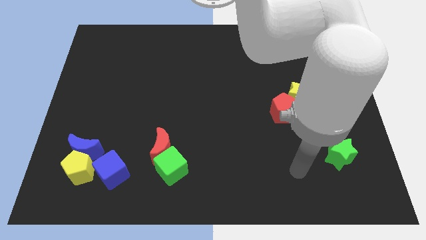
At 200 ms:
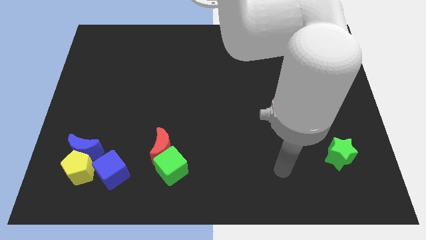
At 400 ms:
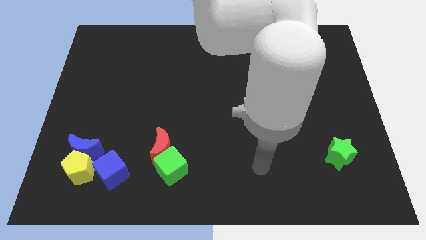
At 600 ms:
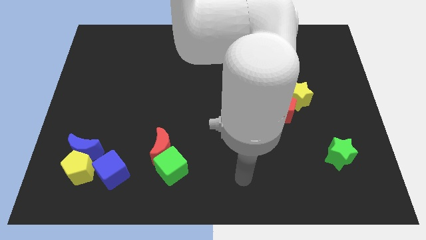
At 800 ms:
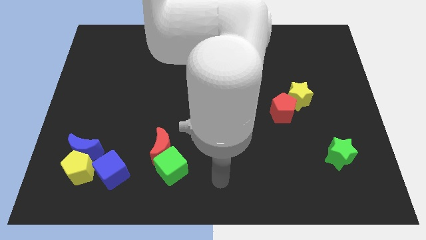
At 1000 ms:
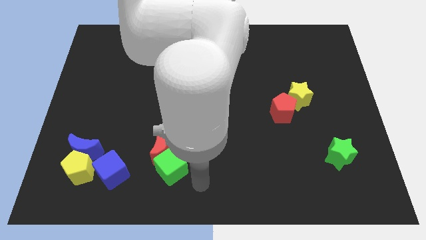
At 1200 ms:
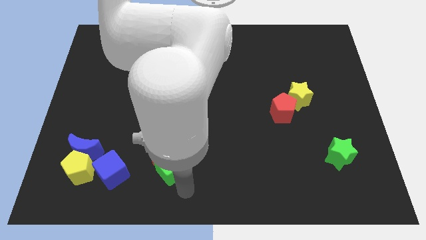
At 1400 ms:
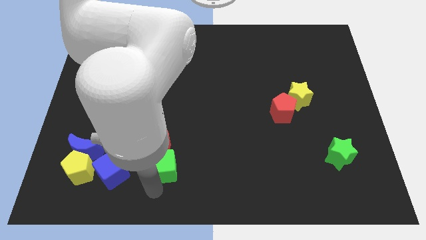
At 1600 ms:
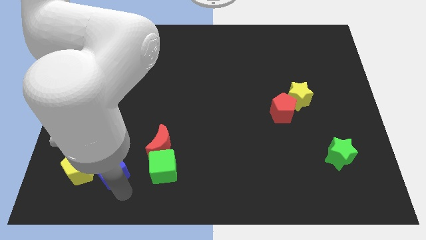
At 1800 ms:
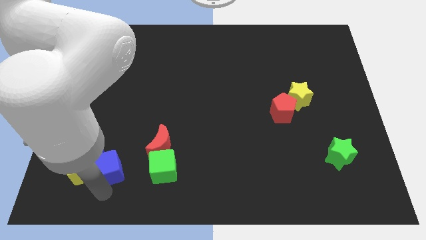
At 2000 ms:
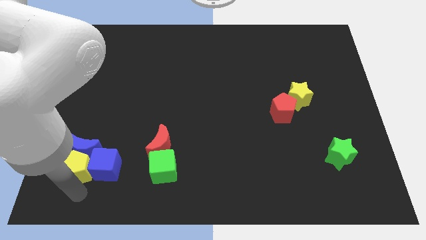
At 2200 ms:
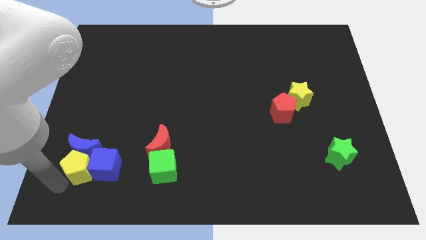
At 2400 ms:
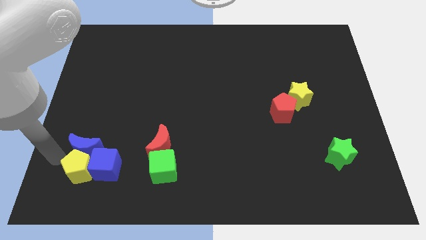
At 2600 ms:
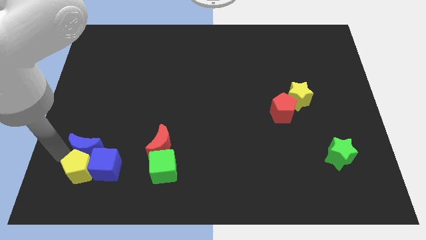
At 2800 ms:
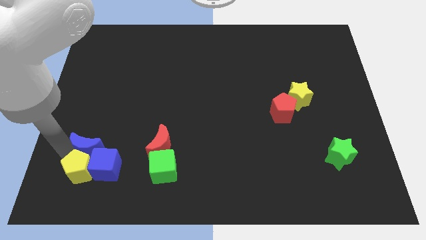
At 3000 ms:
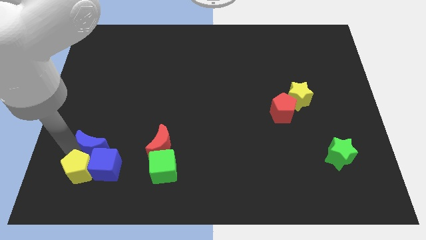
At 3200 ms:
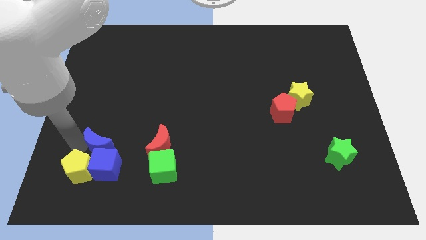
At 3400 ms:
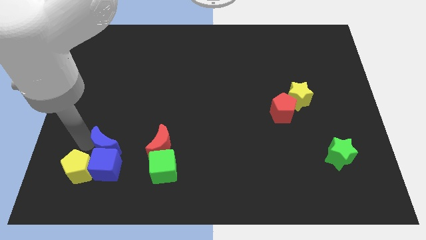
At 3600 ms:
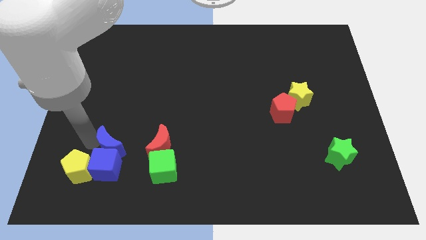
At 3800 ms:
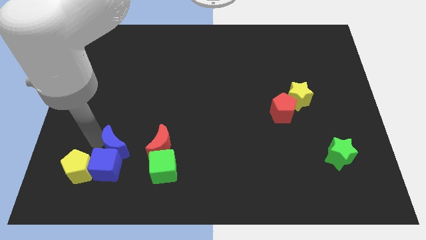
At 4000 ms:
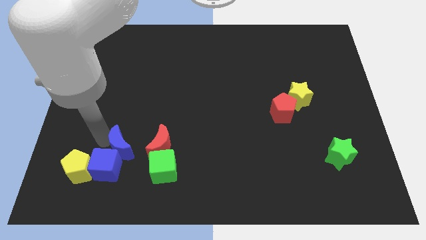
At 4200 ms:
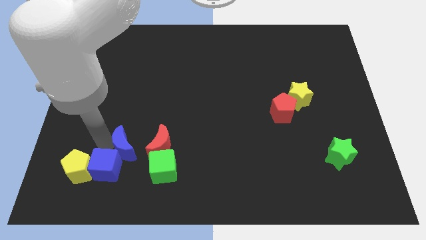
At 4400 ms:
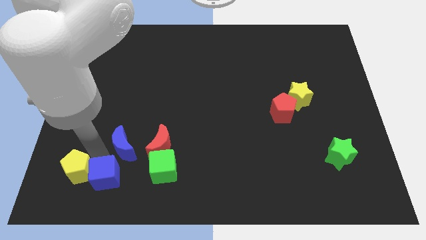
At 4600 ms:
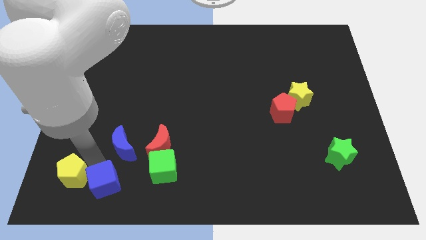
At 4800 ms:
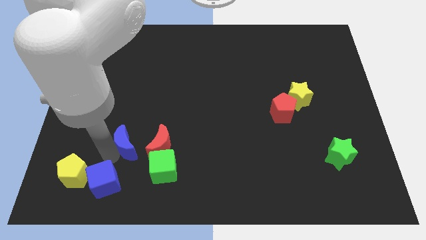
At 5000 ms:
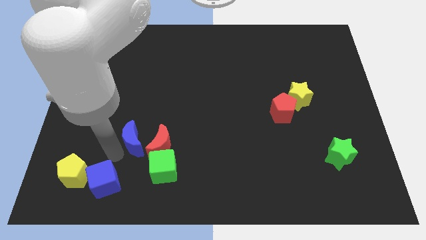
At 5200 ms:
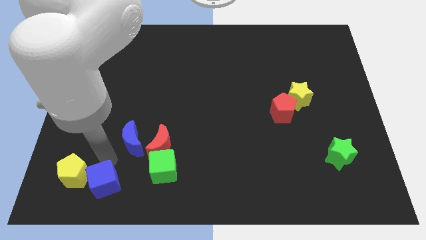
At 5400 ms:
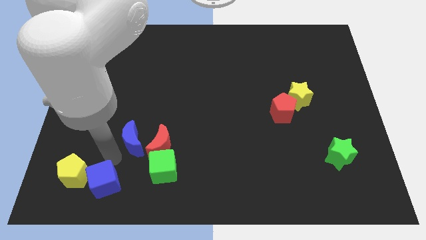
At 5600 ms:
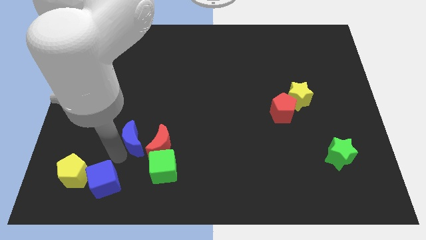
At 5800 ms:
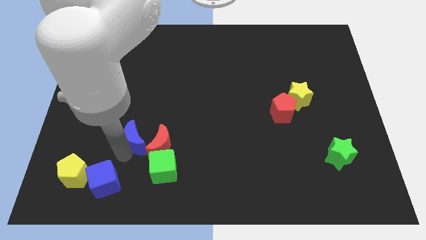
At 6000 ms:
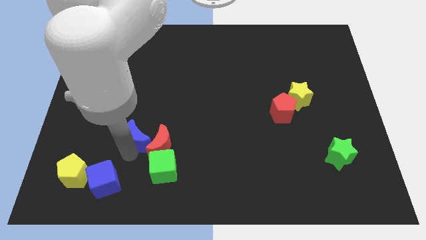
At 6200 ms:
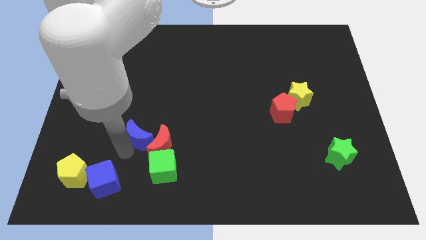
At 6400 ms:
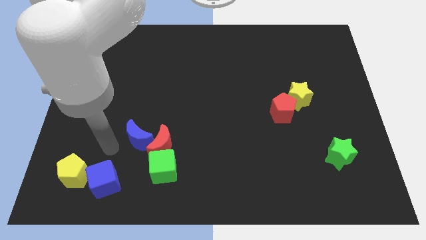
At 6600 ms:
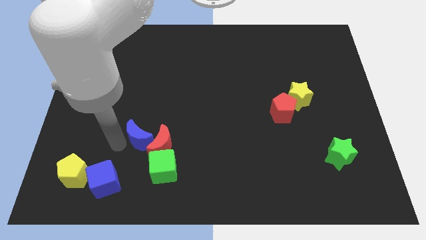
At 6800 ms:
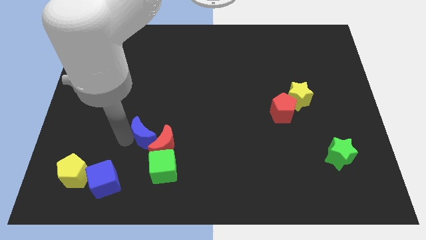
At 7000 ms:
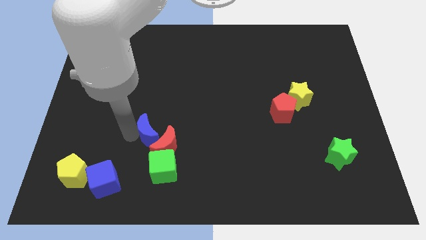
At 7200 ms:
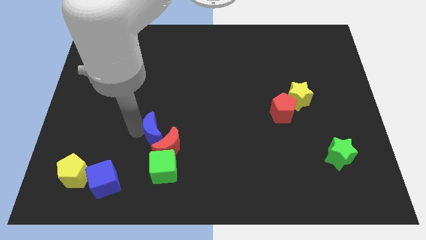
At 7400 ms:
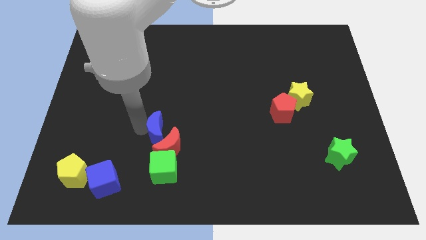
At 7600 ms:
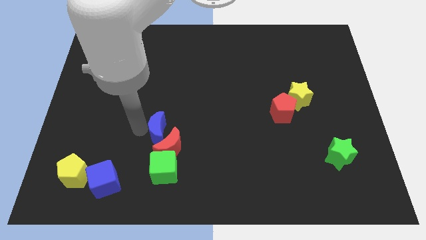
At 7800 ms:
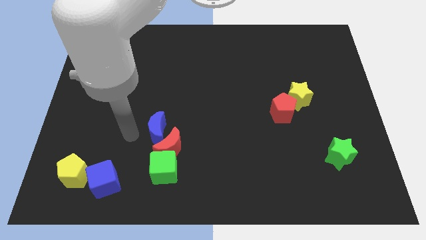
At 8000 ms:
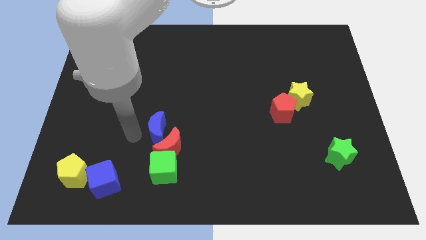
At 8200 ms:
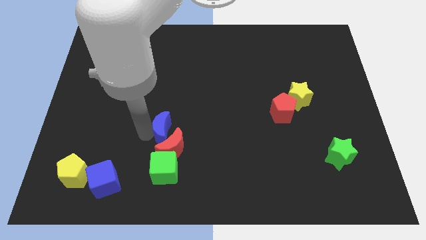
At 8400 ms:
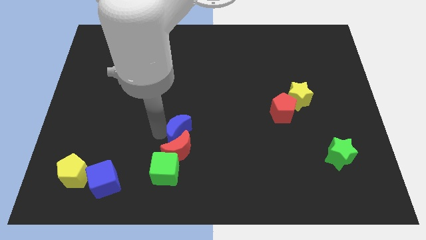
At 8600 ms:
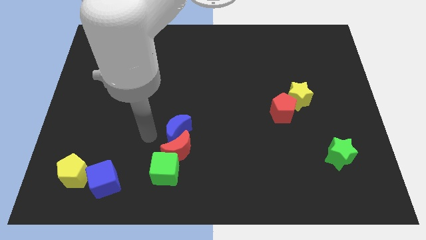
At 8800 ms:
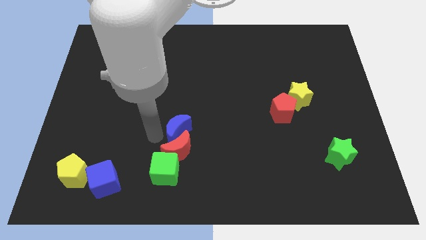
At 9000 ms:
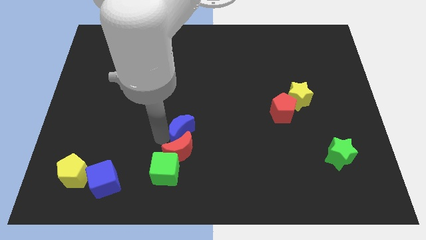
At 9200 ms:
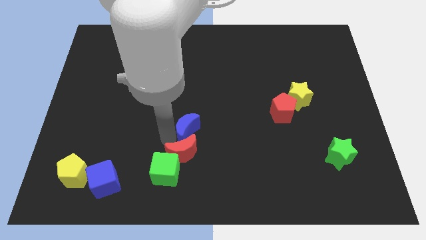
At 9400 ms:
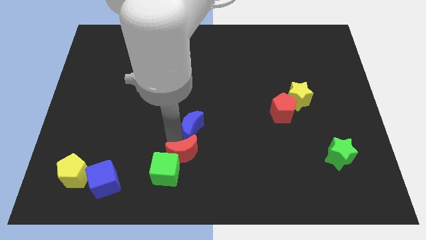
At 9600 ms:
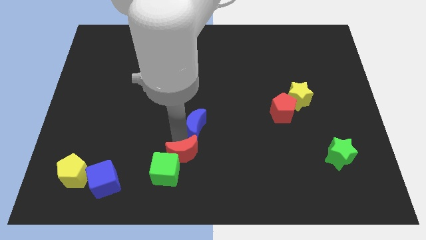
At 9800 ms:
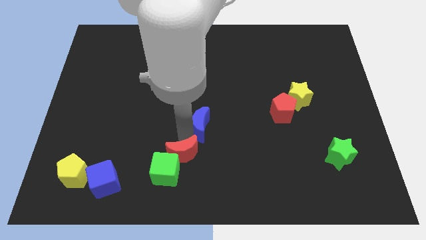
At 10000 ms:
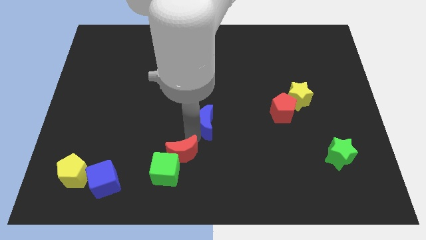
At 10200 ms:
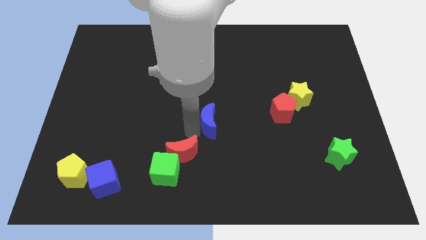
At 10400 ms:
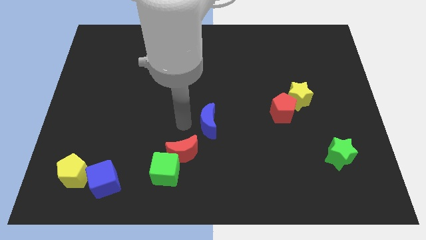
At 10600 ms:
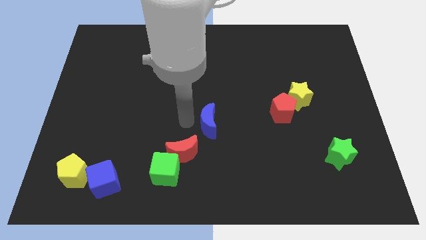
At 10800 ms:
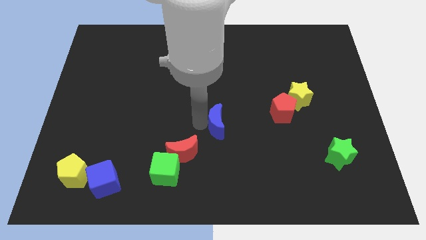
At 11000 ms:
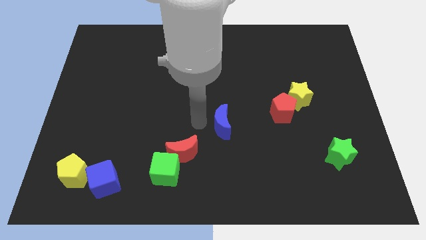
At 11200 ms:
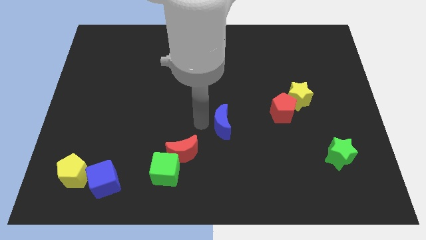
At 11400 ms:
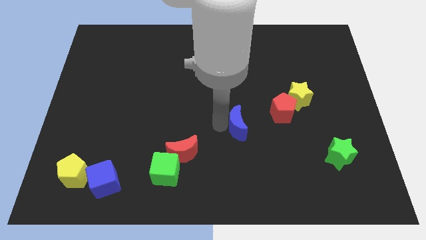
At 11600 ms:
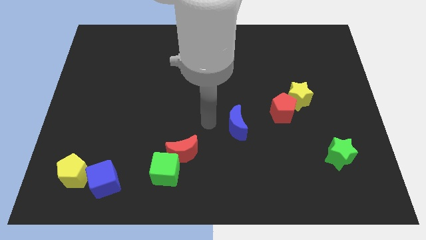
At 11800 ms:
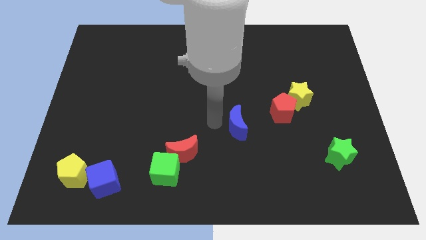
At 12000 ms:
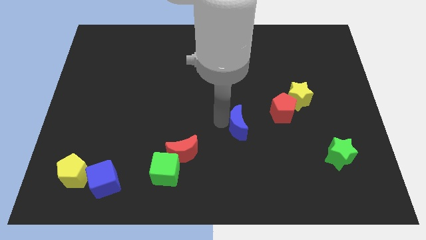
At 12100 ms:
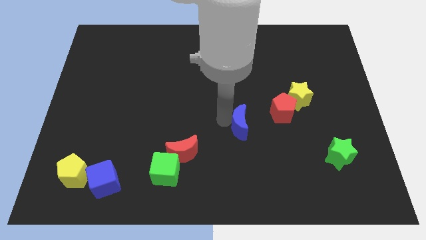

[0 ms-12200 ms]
put the blue moon to the bottom left of the red pentagon
